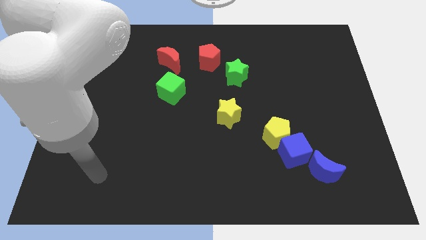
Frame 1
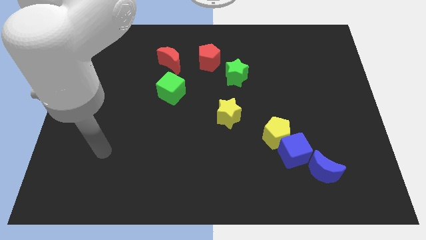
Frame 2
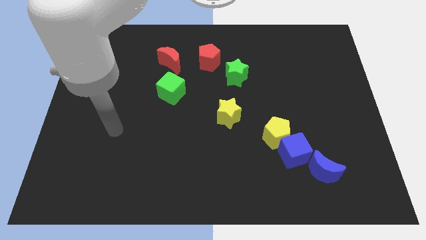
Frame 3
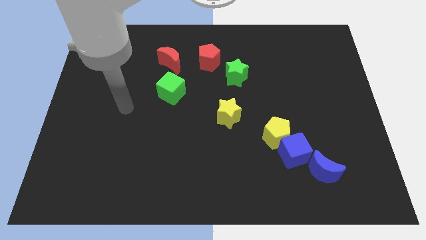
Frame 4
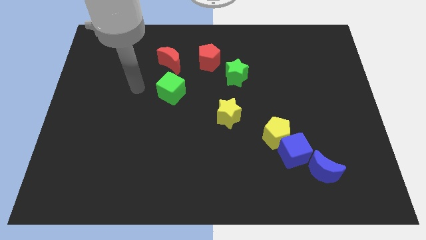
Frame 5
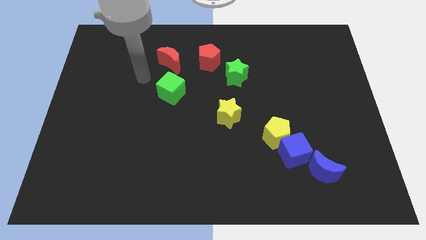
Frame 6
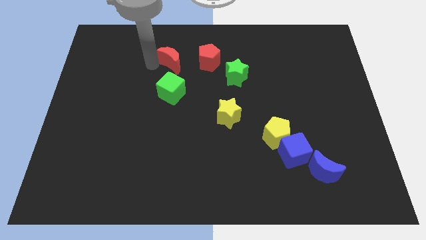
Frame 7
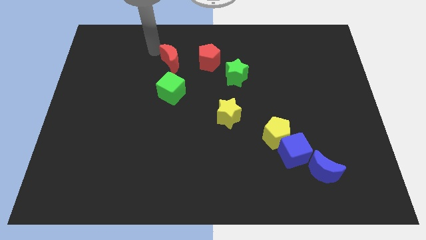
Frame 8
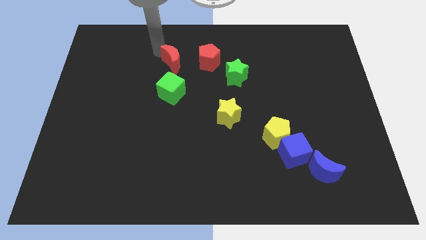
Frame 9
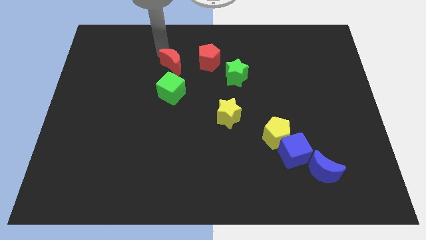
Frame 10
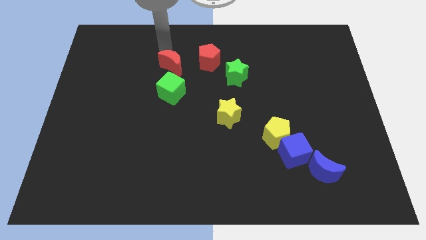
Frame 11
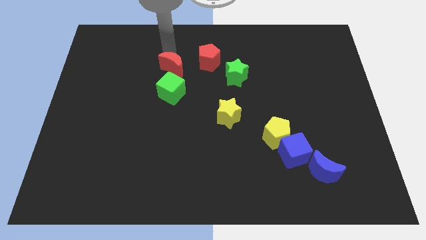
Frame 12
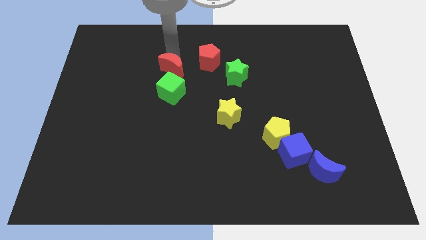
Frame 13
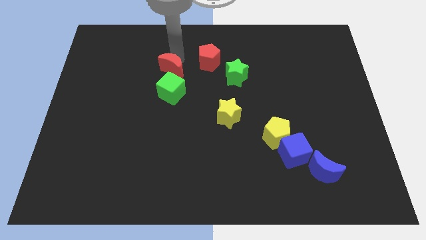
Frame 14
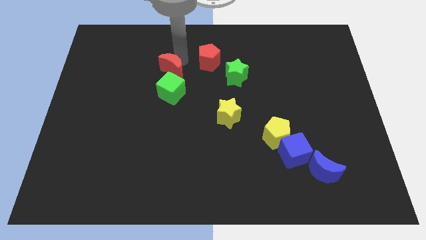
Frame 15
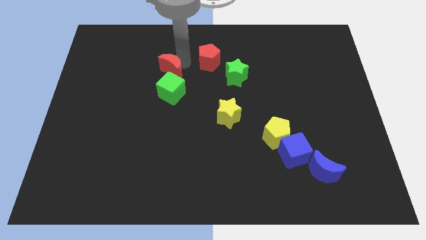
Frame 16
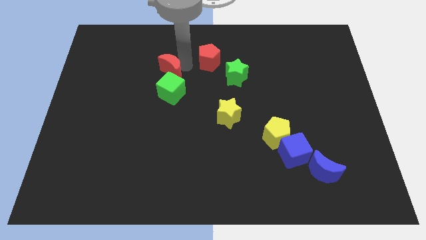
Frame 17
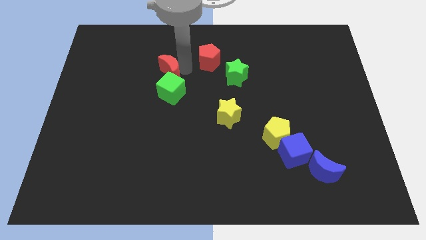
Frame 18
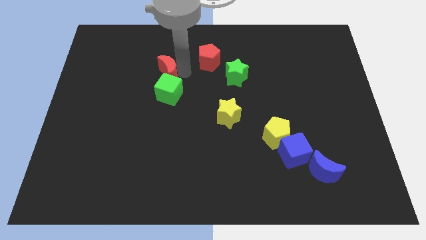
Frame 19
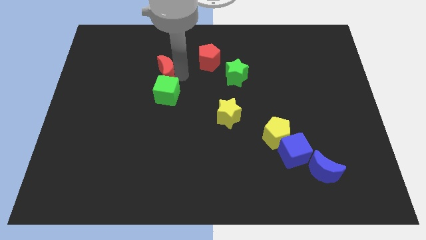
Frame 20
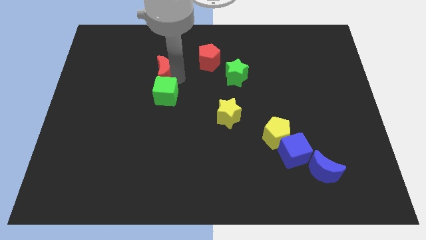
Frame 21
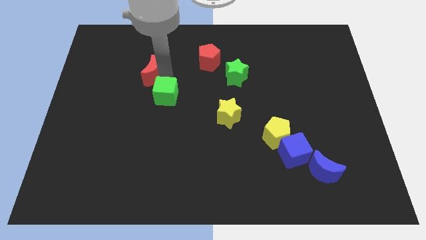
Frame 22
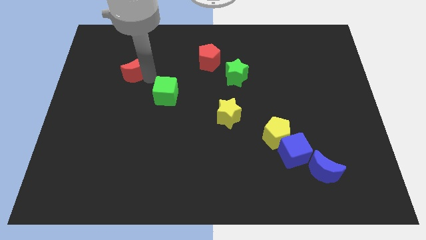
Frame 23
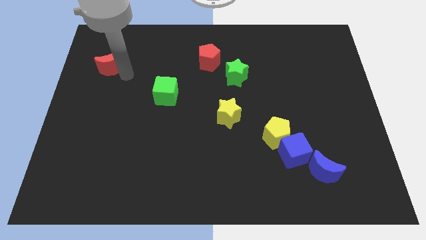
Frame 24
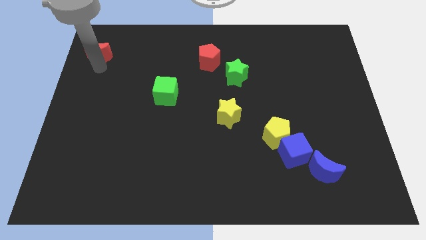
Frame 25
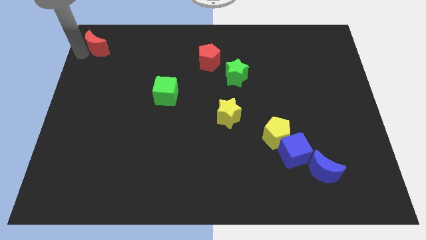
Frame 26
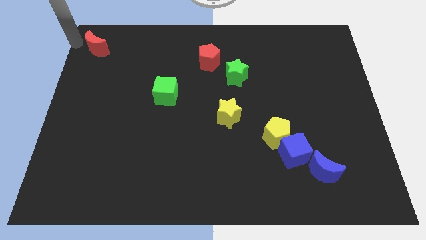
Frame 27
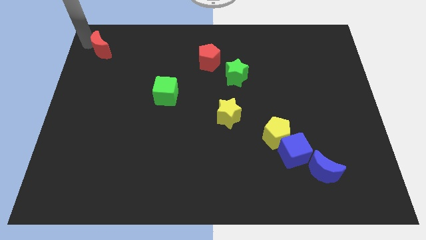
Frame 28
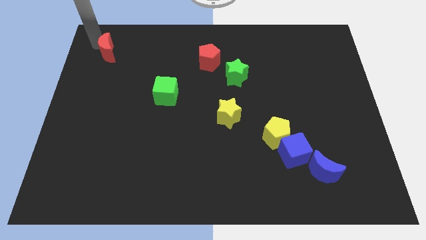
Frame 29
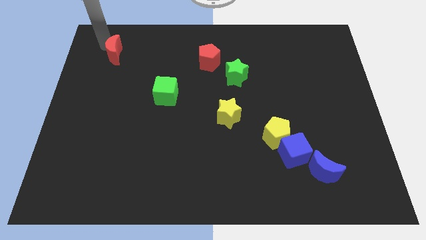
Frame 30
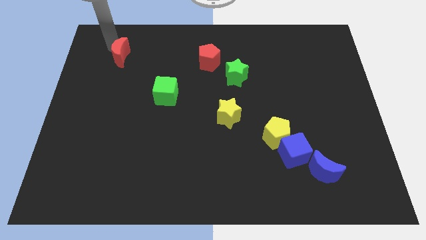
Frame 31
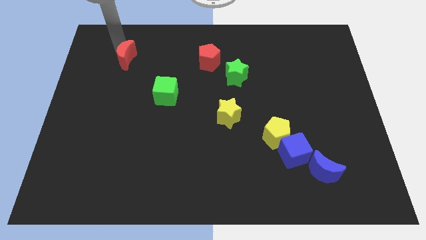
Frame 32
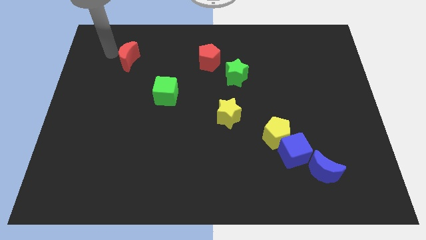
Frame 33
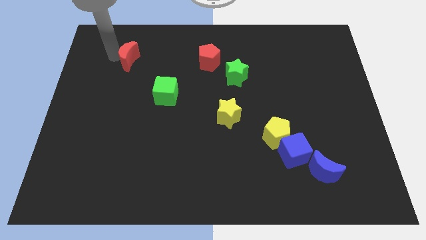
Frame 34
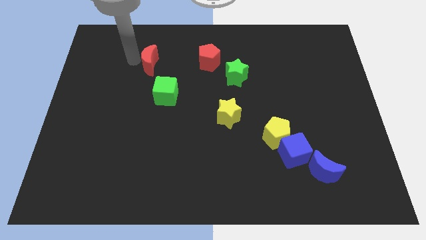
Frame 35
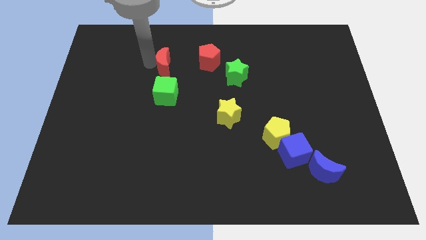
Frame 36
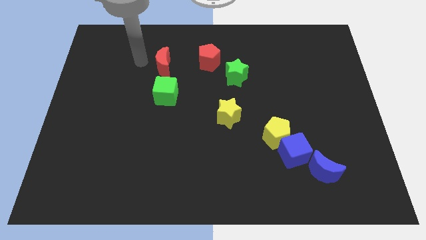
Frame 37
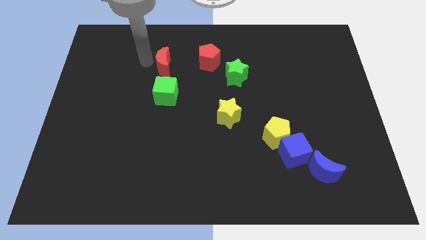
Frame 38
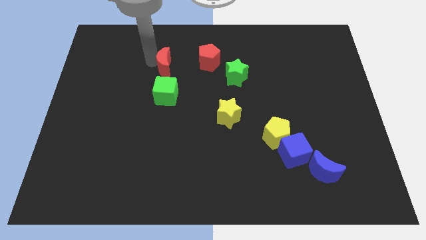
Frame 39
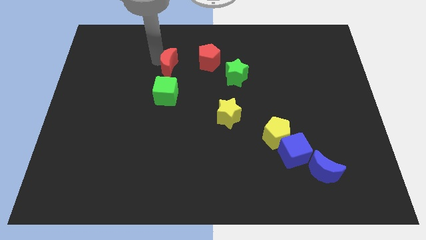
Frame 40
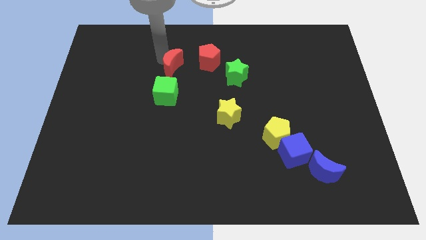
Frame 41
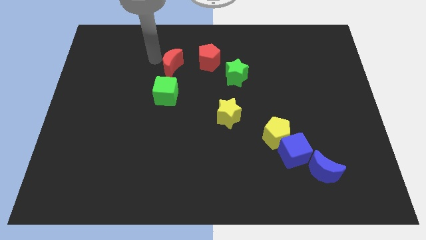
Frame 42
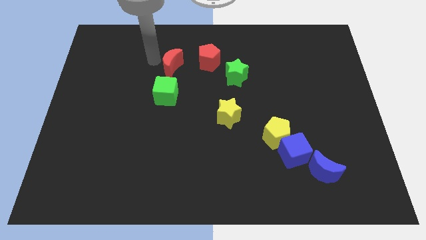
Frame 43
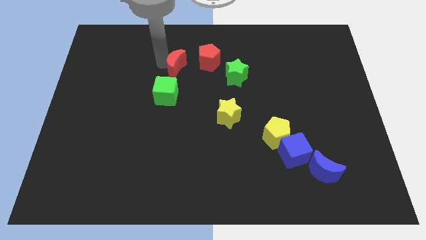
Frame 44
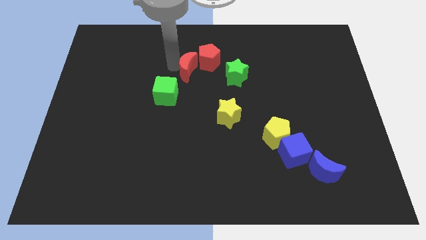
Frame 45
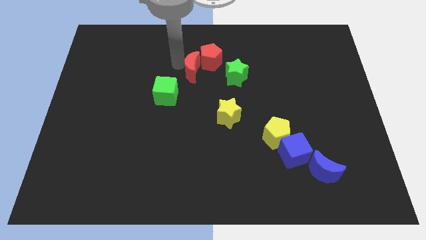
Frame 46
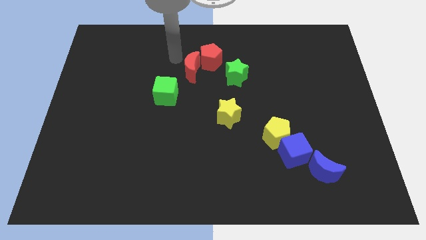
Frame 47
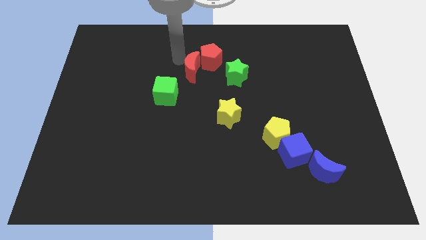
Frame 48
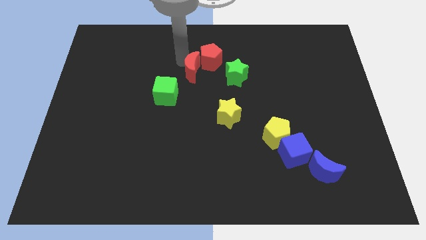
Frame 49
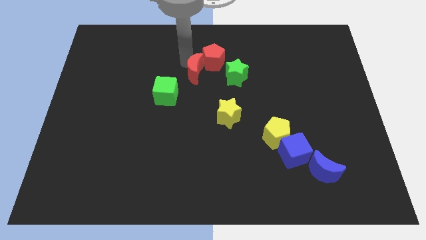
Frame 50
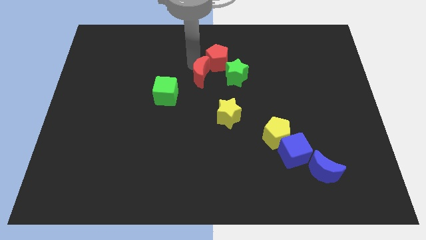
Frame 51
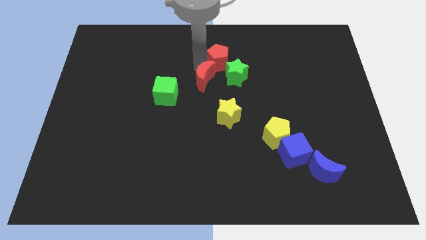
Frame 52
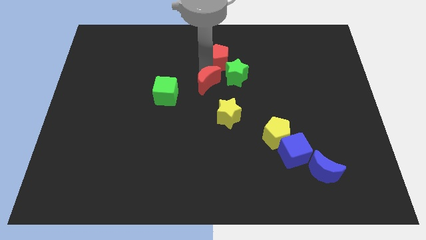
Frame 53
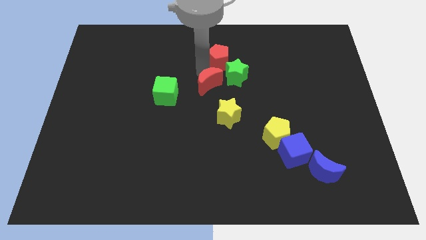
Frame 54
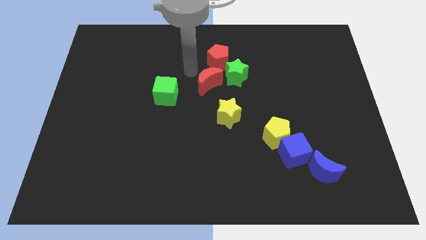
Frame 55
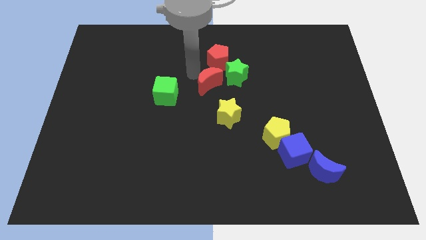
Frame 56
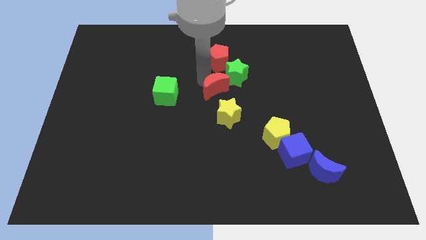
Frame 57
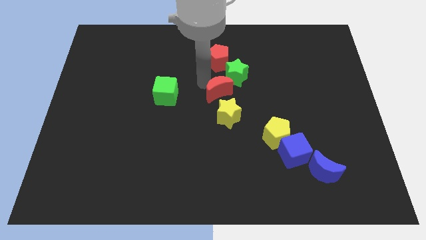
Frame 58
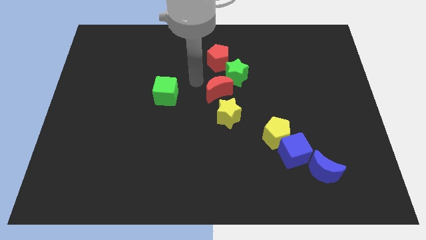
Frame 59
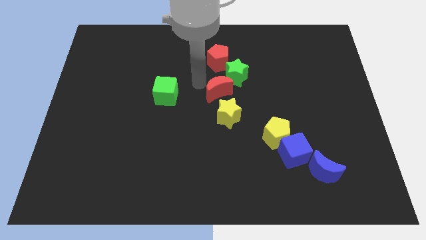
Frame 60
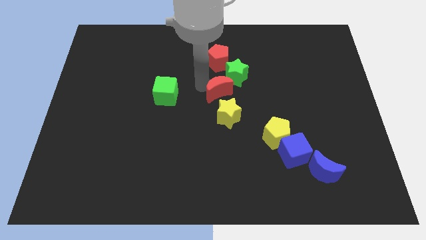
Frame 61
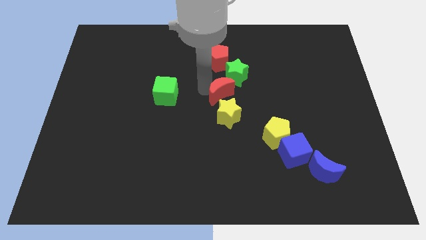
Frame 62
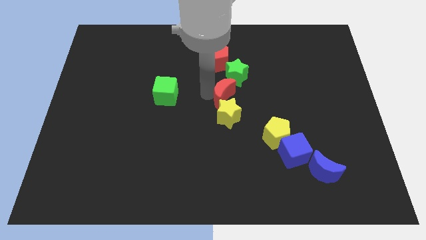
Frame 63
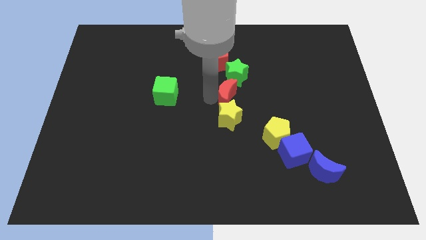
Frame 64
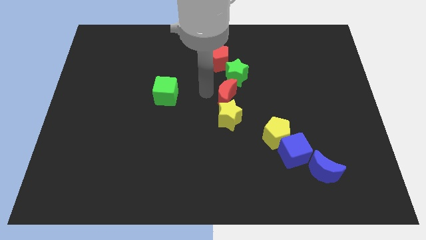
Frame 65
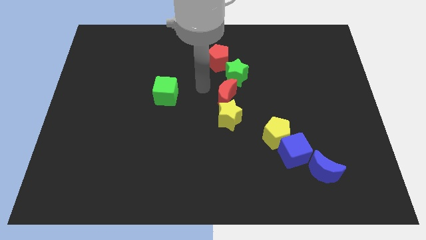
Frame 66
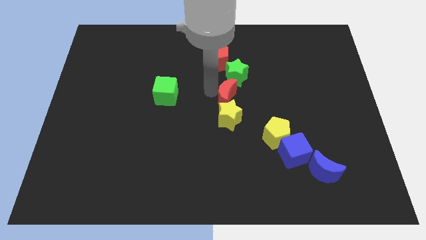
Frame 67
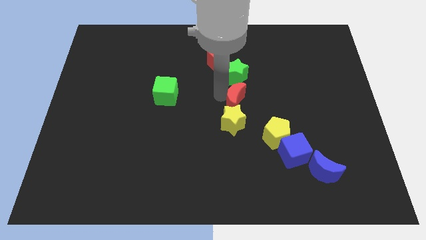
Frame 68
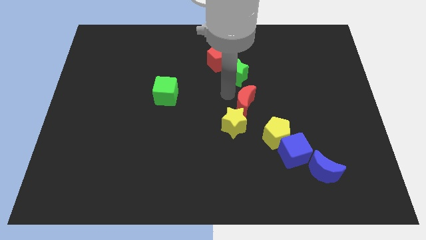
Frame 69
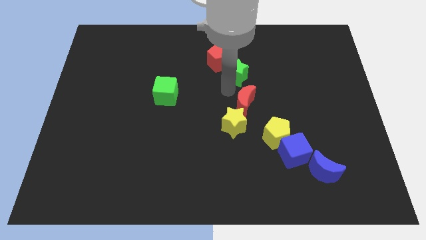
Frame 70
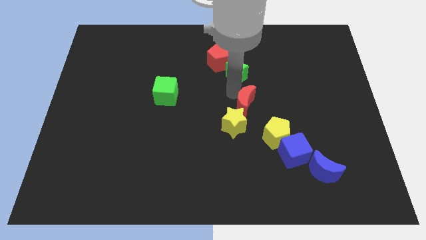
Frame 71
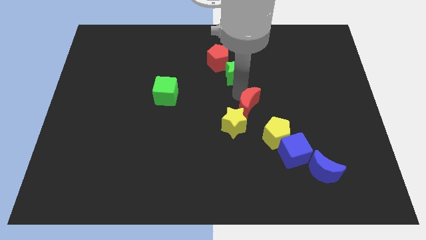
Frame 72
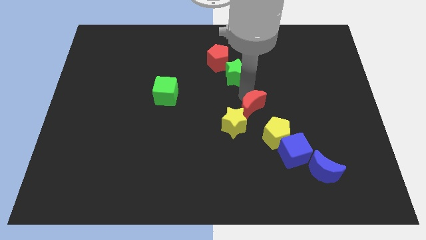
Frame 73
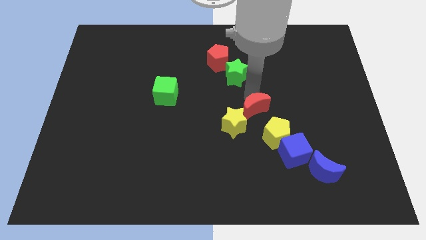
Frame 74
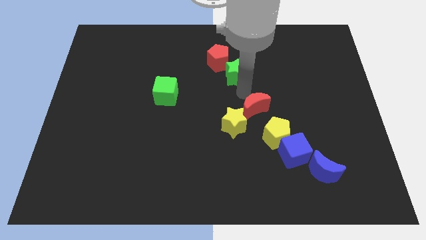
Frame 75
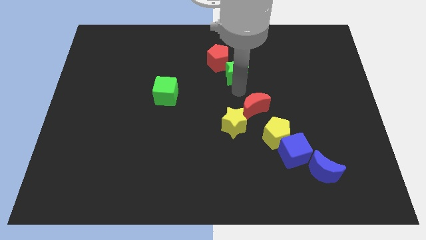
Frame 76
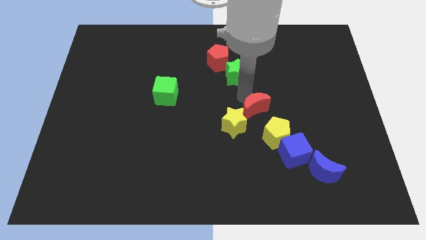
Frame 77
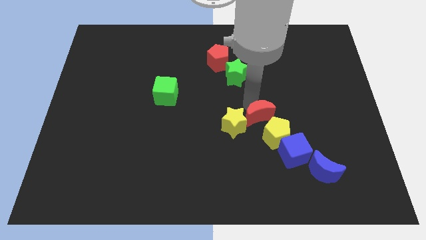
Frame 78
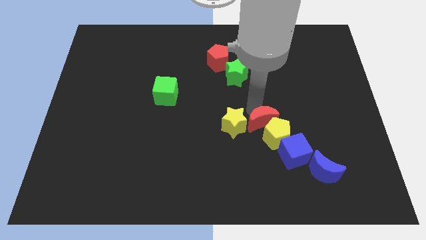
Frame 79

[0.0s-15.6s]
push the red moon next to the yellow pentagon
